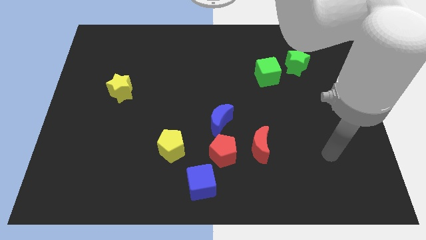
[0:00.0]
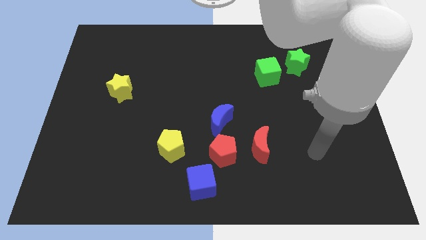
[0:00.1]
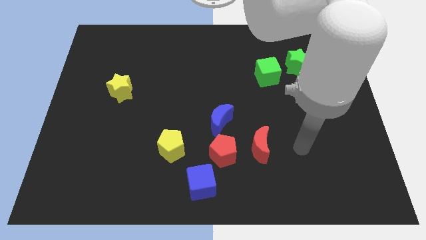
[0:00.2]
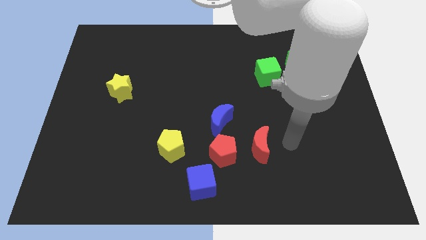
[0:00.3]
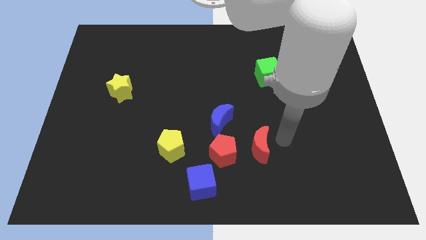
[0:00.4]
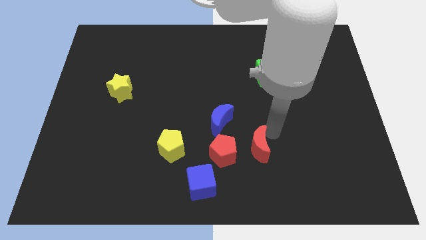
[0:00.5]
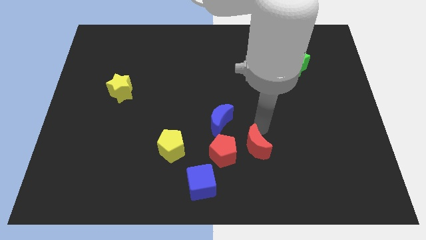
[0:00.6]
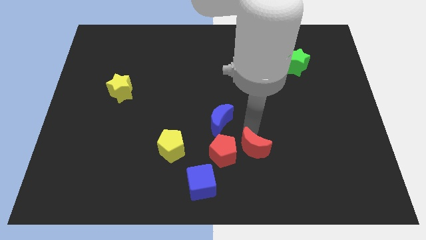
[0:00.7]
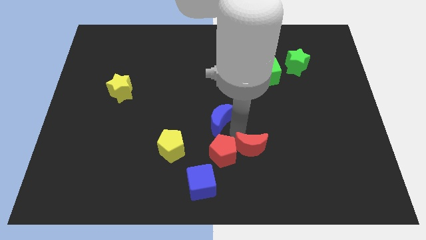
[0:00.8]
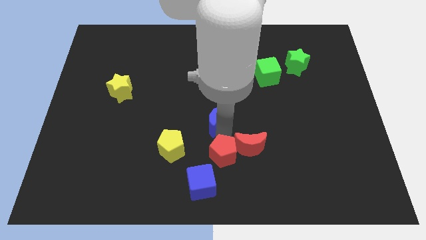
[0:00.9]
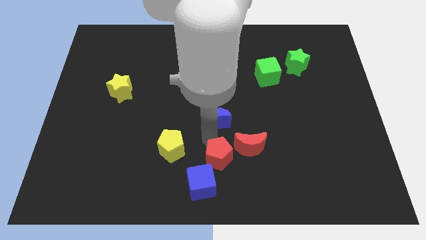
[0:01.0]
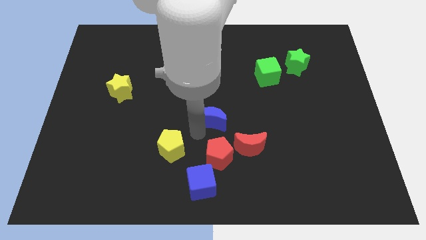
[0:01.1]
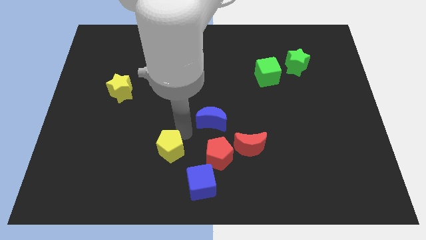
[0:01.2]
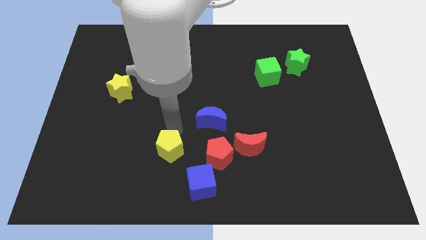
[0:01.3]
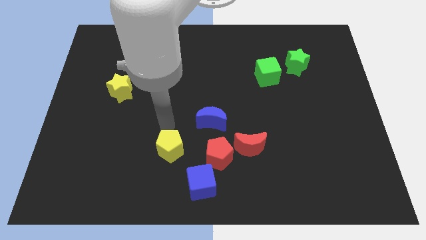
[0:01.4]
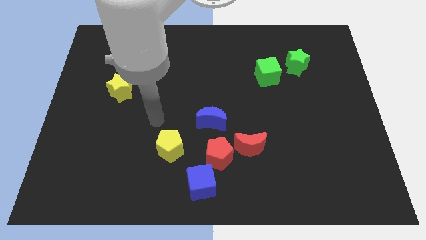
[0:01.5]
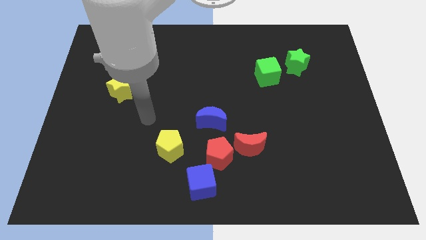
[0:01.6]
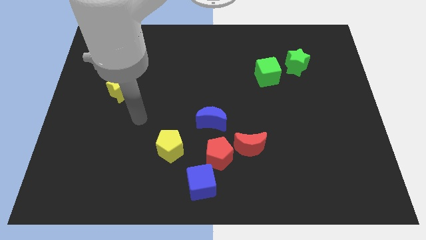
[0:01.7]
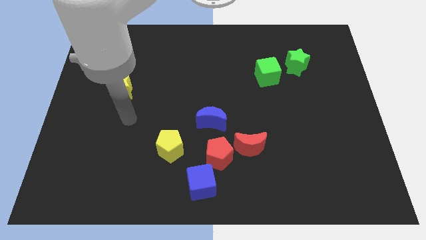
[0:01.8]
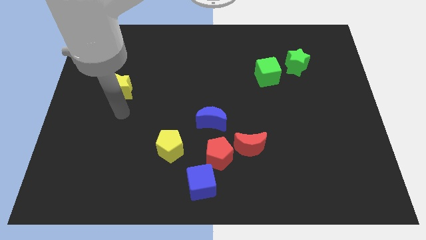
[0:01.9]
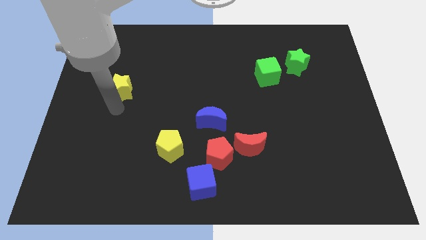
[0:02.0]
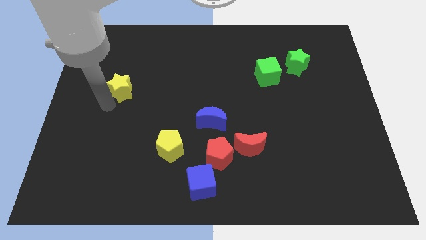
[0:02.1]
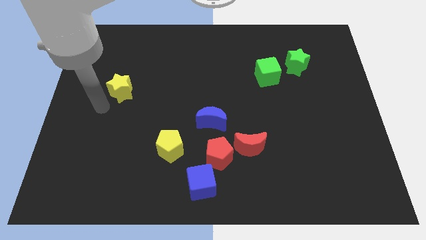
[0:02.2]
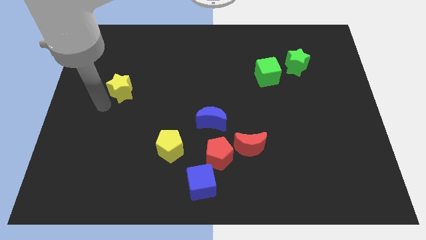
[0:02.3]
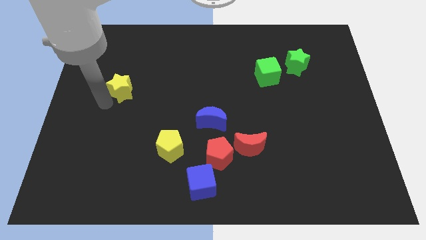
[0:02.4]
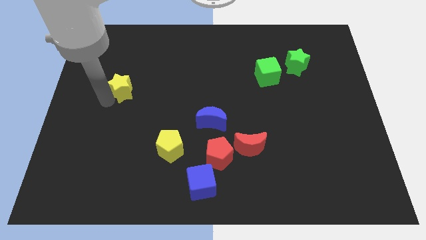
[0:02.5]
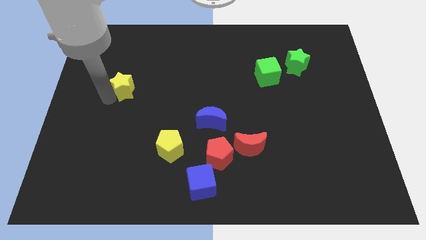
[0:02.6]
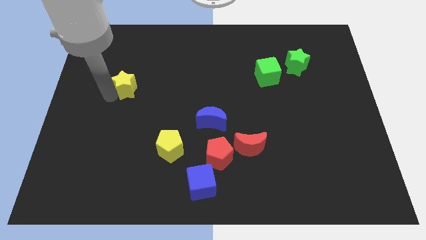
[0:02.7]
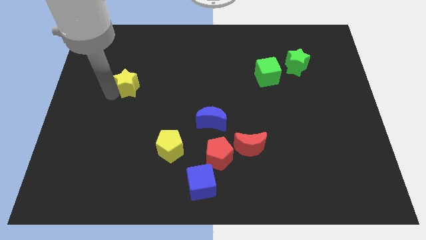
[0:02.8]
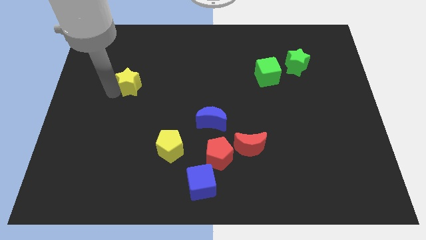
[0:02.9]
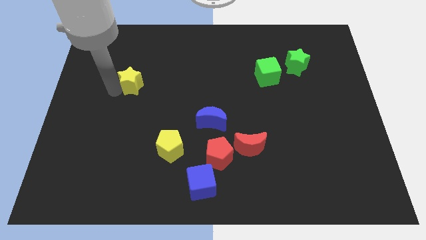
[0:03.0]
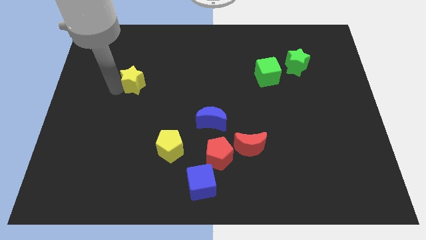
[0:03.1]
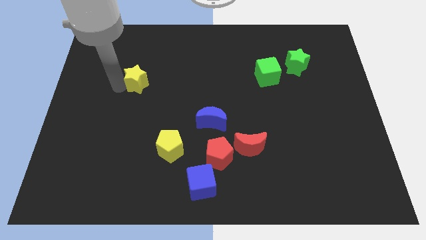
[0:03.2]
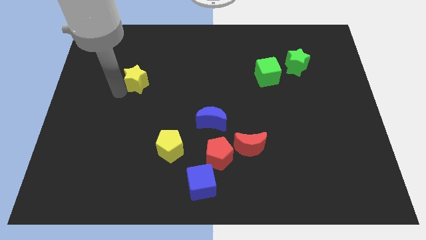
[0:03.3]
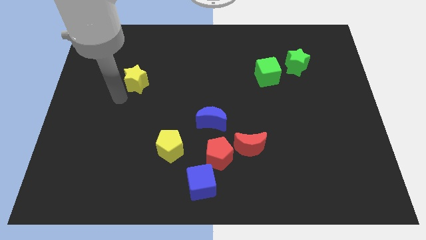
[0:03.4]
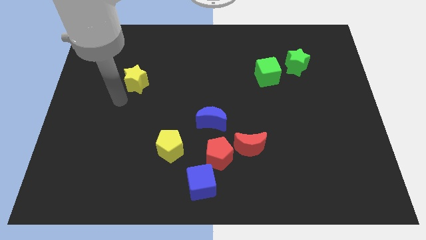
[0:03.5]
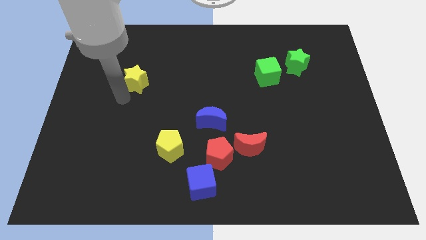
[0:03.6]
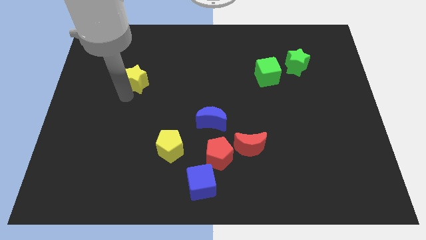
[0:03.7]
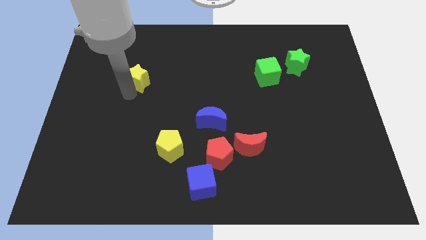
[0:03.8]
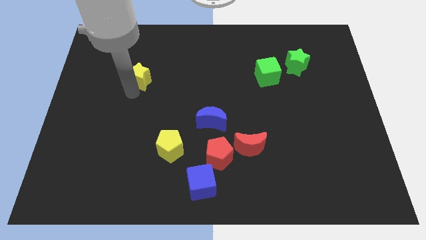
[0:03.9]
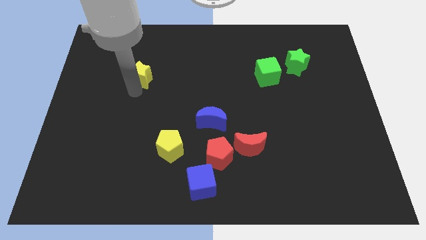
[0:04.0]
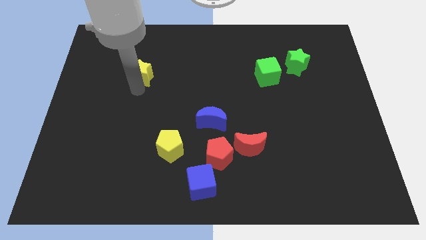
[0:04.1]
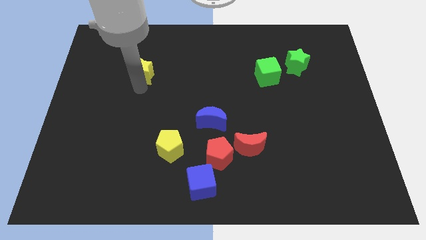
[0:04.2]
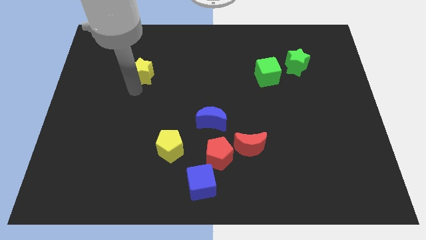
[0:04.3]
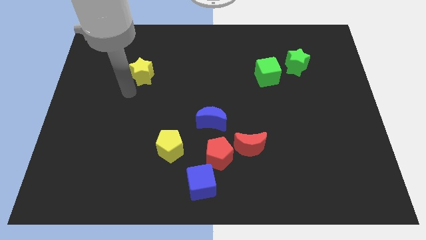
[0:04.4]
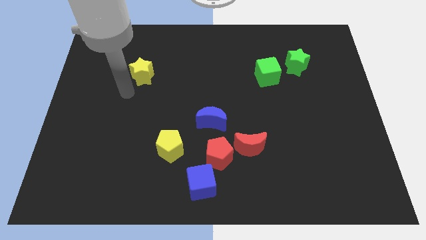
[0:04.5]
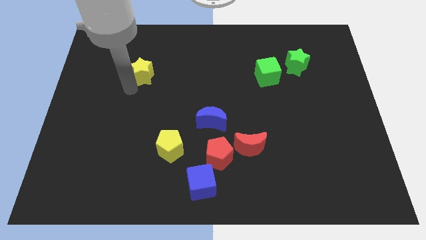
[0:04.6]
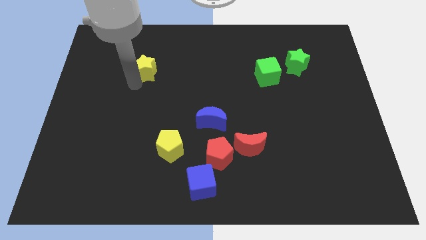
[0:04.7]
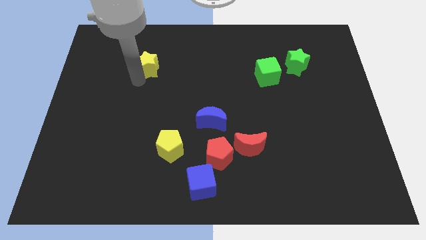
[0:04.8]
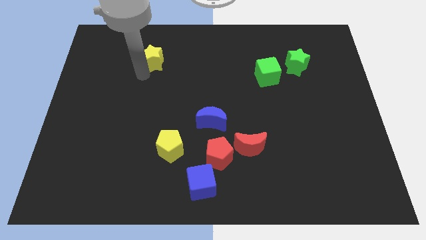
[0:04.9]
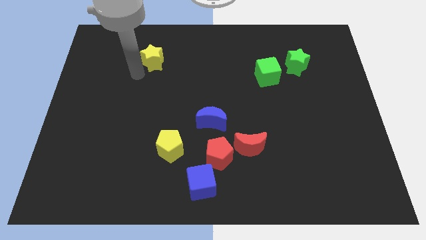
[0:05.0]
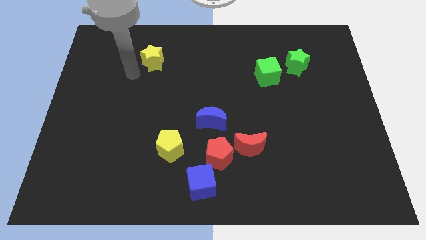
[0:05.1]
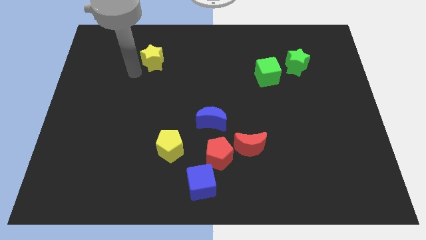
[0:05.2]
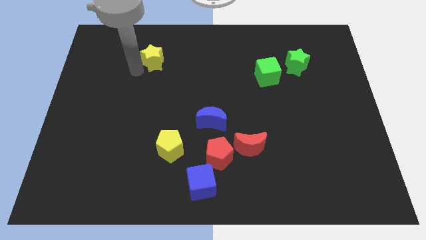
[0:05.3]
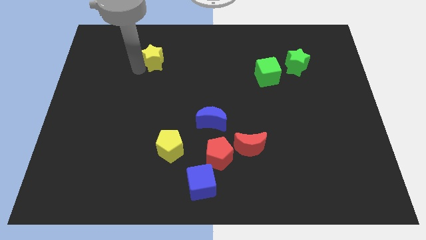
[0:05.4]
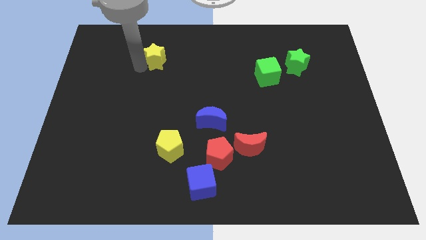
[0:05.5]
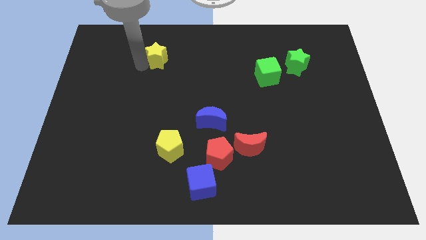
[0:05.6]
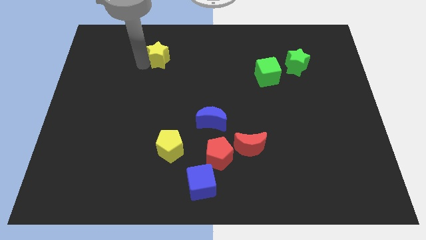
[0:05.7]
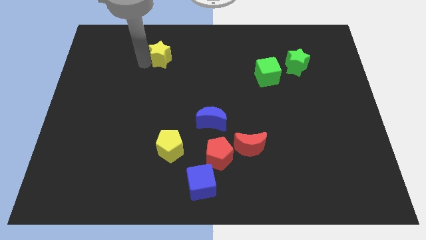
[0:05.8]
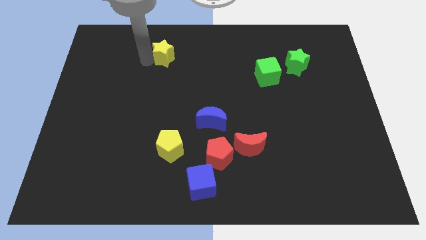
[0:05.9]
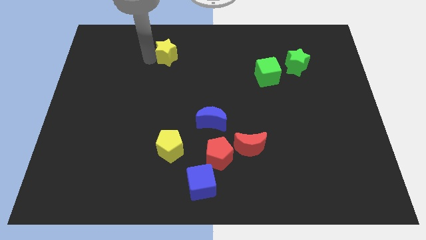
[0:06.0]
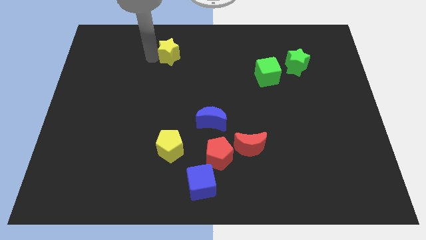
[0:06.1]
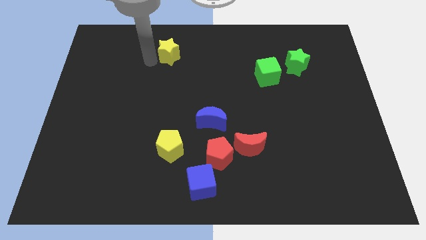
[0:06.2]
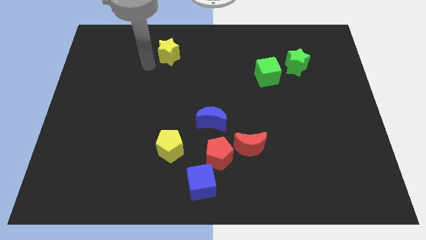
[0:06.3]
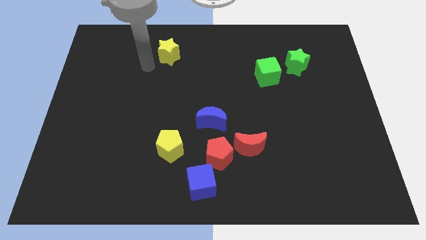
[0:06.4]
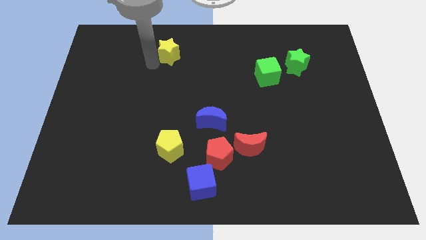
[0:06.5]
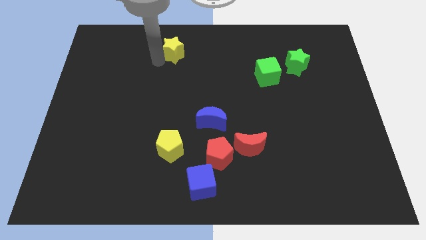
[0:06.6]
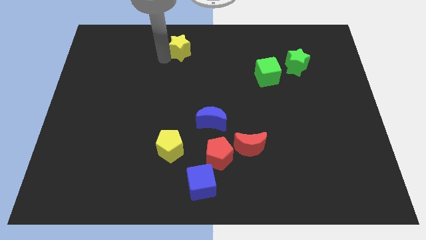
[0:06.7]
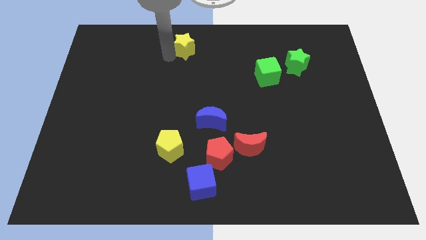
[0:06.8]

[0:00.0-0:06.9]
put the yellow star to the top side
